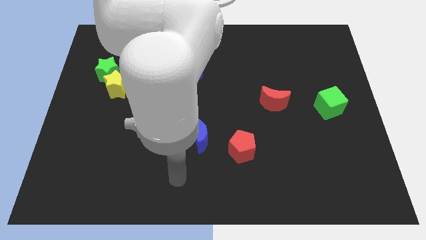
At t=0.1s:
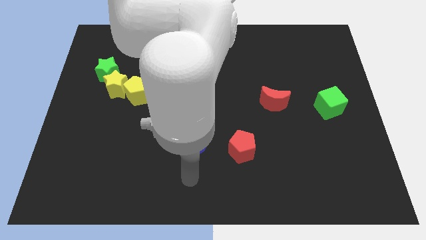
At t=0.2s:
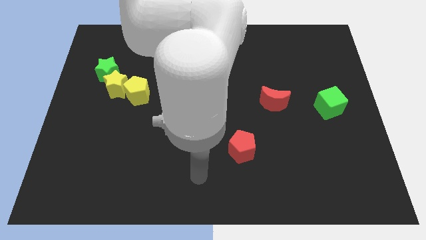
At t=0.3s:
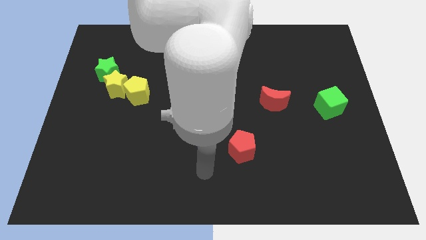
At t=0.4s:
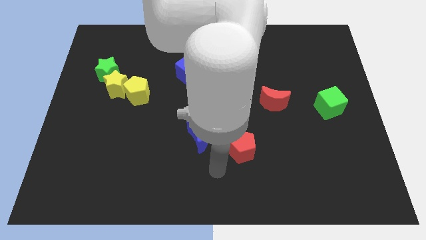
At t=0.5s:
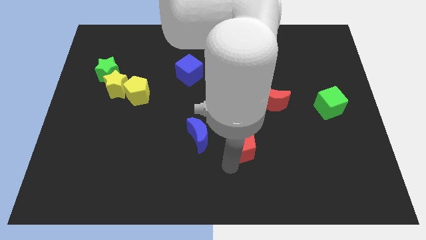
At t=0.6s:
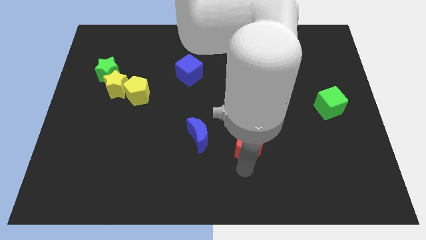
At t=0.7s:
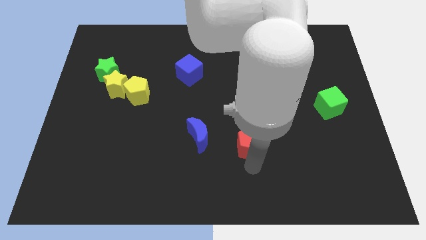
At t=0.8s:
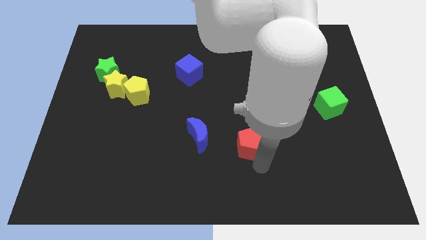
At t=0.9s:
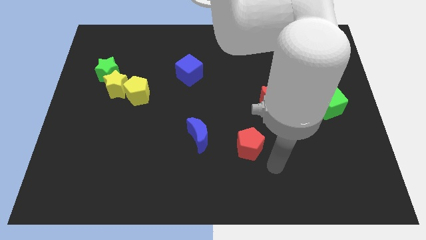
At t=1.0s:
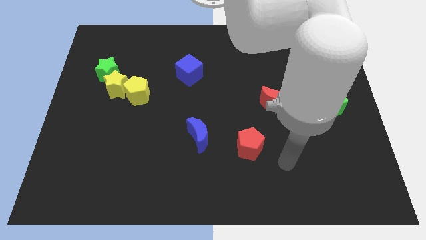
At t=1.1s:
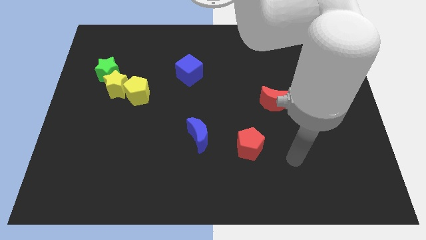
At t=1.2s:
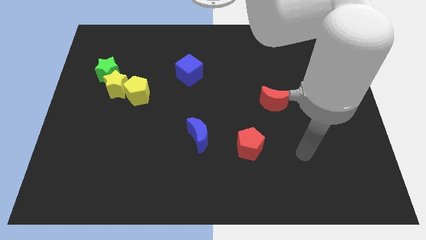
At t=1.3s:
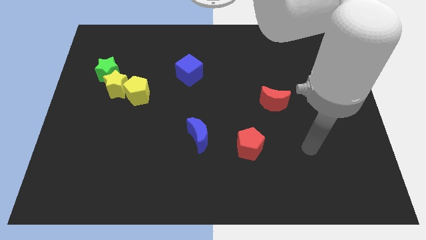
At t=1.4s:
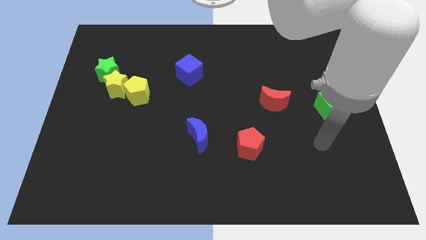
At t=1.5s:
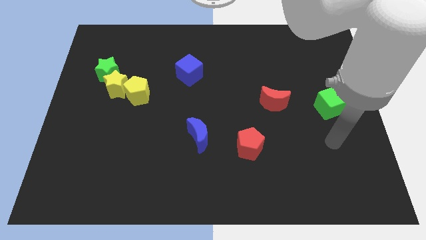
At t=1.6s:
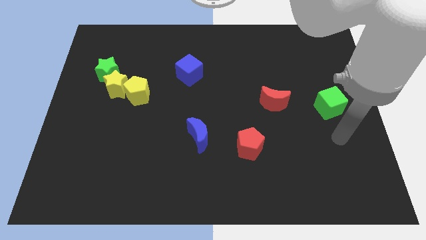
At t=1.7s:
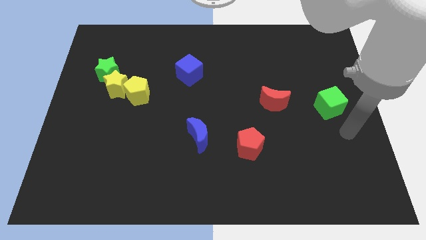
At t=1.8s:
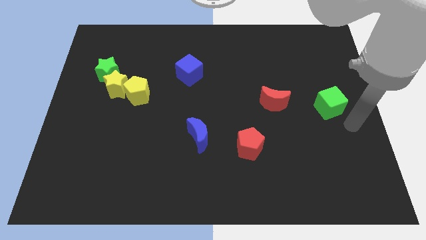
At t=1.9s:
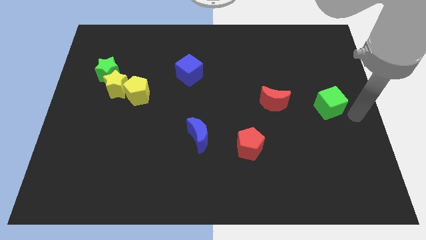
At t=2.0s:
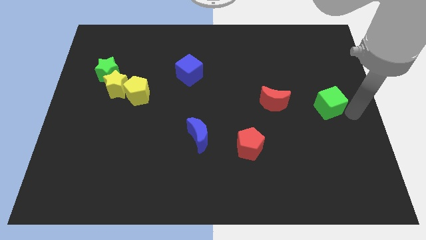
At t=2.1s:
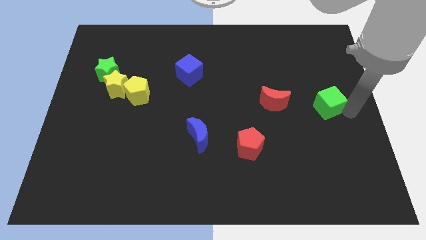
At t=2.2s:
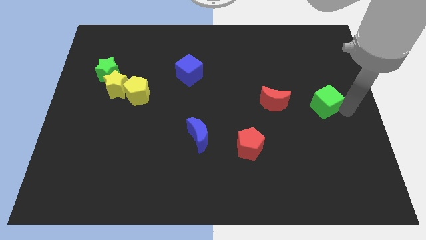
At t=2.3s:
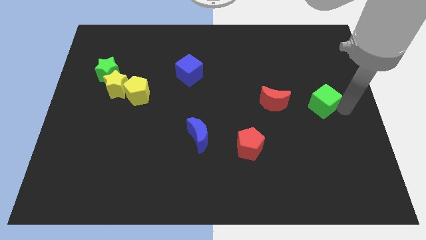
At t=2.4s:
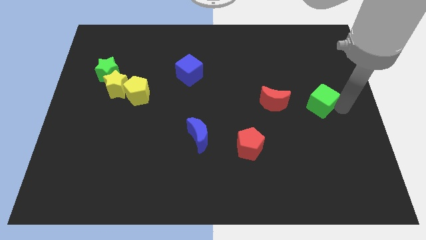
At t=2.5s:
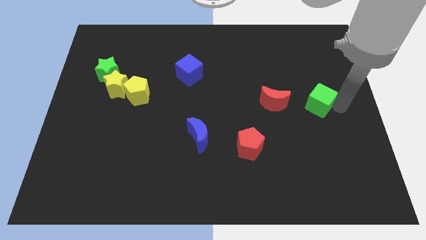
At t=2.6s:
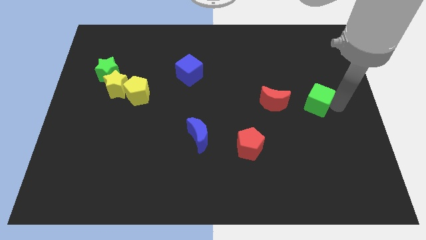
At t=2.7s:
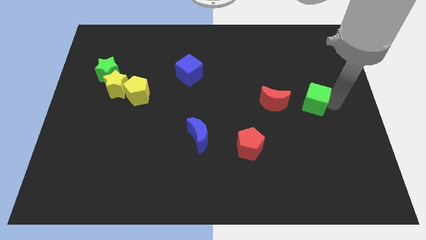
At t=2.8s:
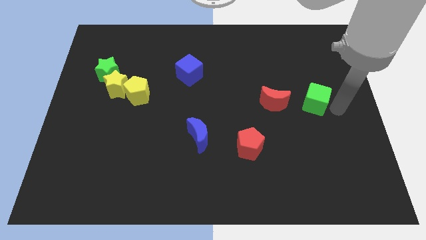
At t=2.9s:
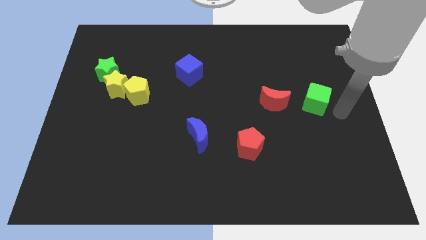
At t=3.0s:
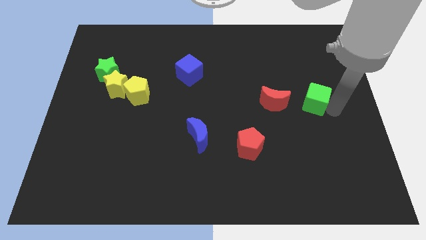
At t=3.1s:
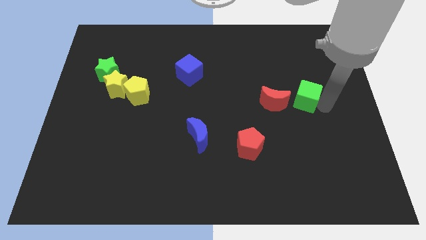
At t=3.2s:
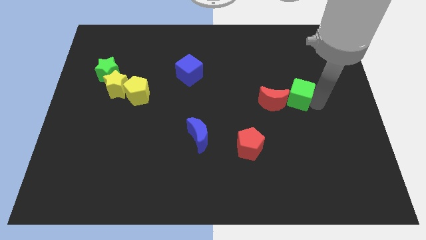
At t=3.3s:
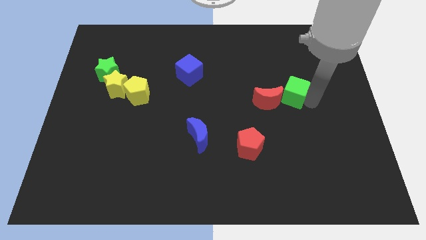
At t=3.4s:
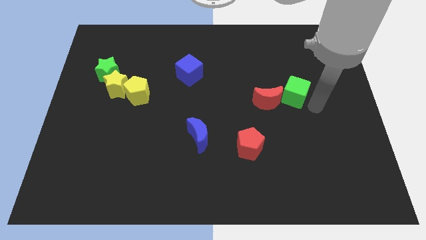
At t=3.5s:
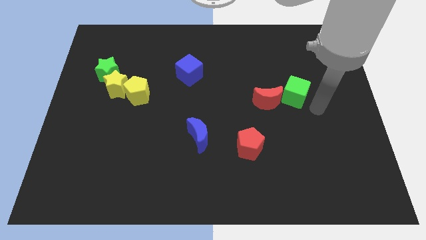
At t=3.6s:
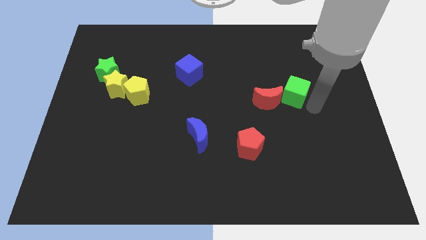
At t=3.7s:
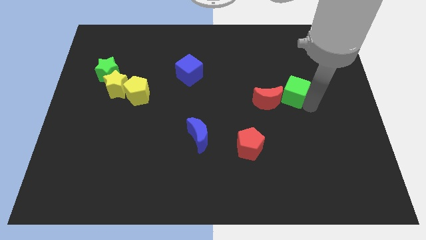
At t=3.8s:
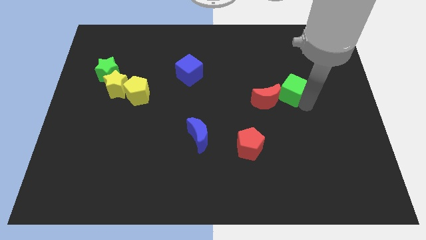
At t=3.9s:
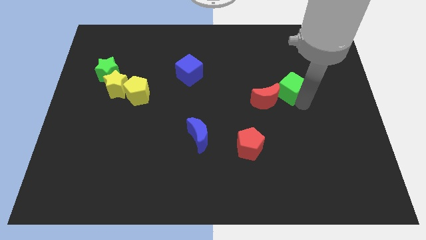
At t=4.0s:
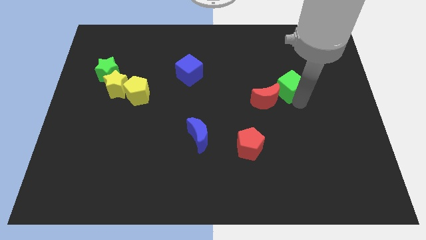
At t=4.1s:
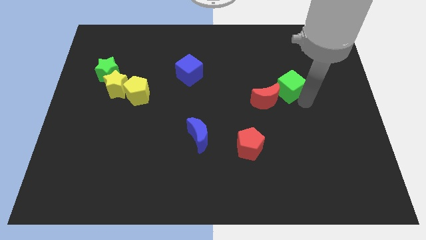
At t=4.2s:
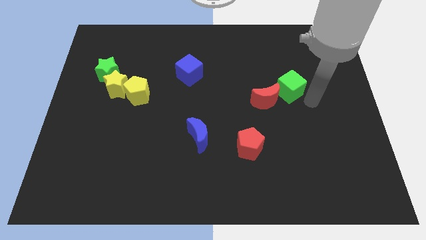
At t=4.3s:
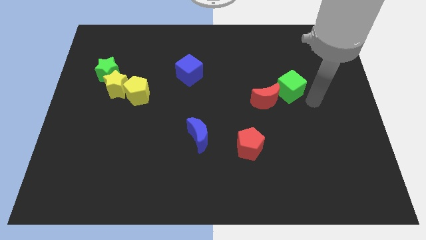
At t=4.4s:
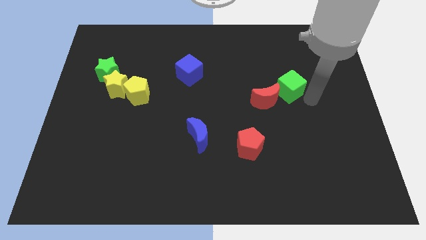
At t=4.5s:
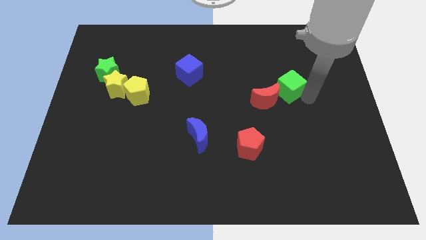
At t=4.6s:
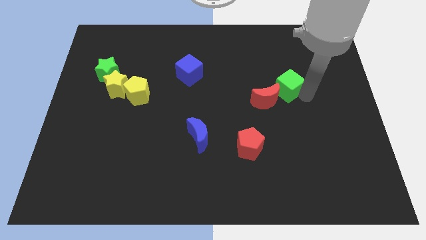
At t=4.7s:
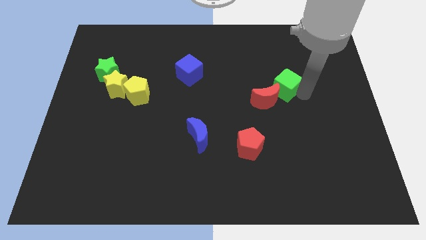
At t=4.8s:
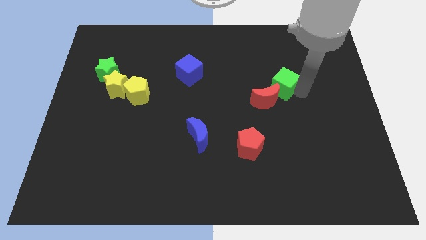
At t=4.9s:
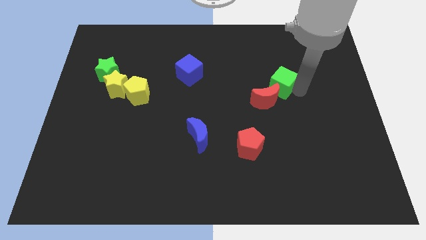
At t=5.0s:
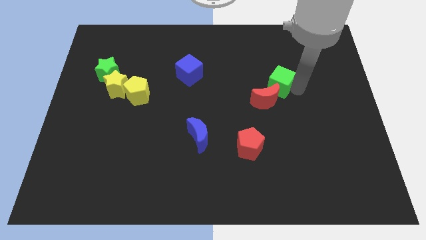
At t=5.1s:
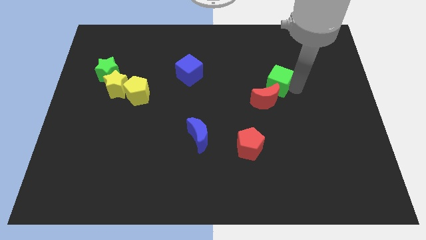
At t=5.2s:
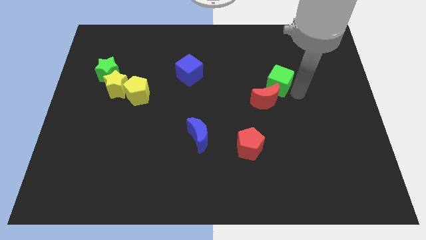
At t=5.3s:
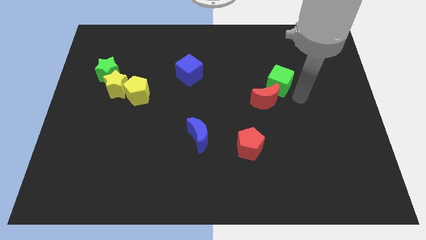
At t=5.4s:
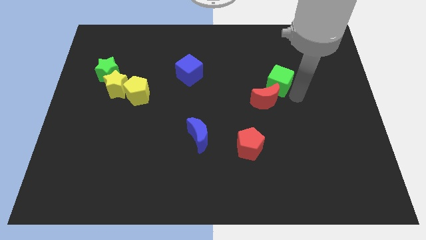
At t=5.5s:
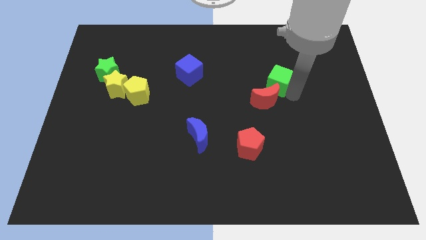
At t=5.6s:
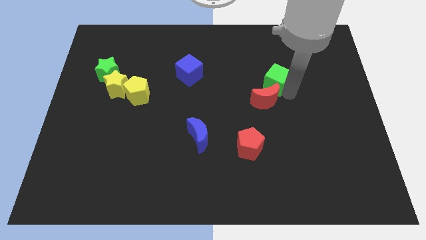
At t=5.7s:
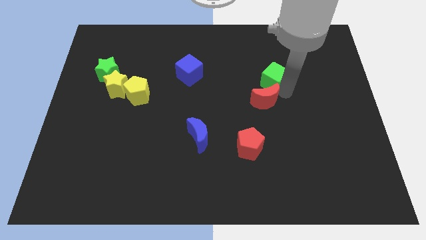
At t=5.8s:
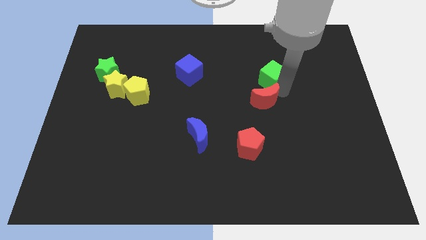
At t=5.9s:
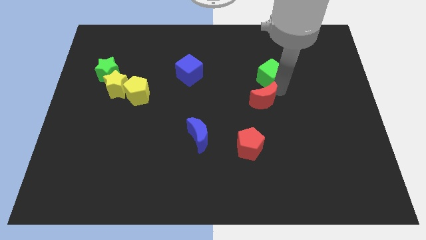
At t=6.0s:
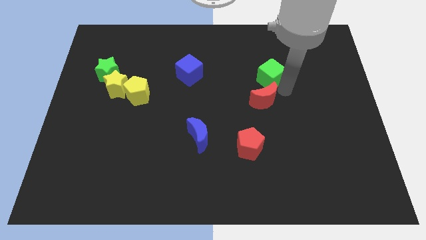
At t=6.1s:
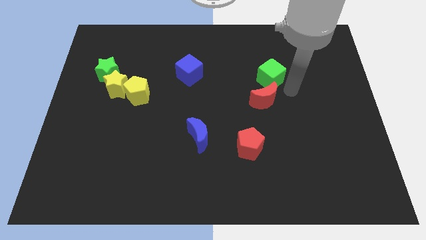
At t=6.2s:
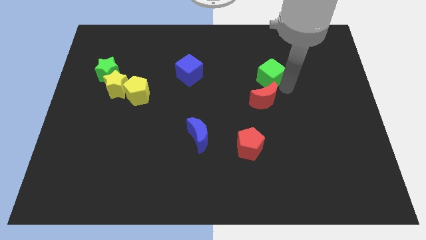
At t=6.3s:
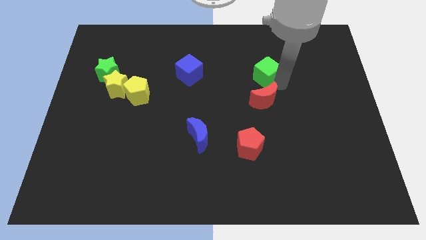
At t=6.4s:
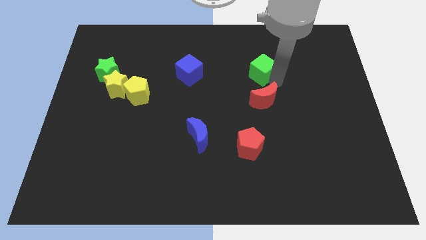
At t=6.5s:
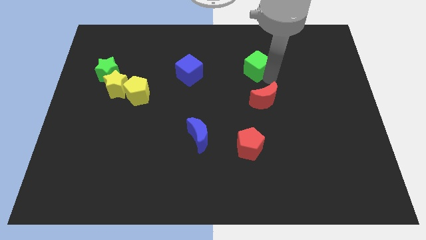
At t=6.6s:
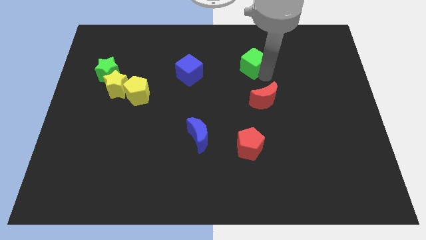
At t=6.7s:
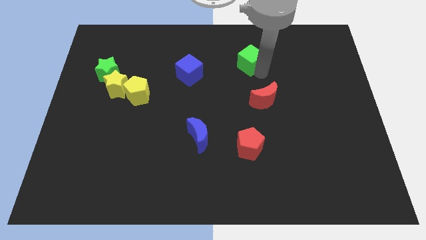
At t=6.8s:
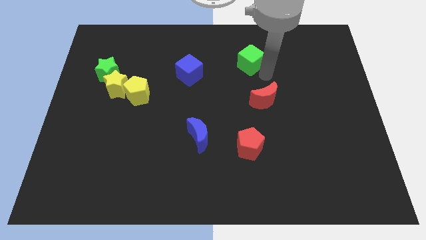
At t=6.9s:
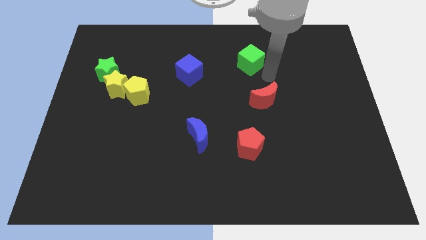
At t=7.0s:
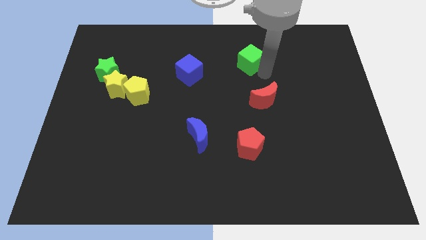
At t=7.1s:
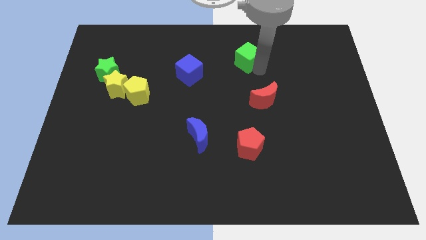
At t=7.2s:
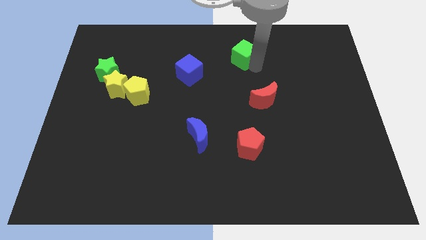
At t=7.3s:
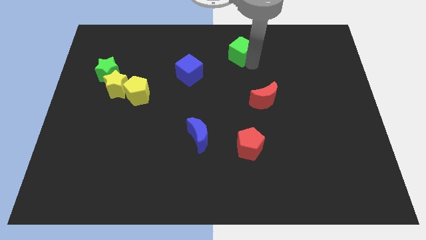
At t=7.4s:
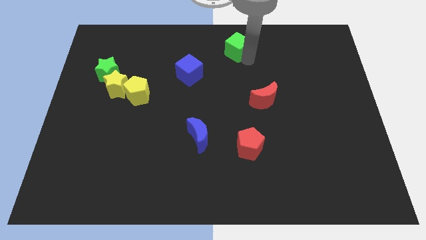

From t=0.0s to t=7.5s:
move the green cube to the top side
